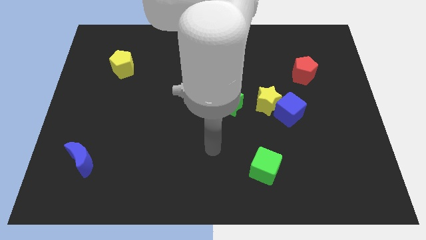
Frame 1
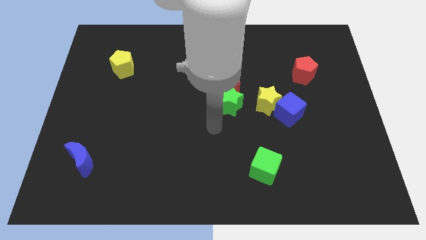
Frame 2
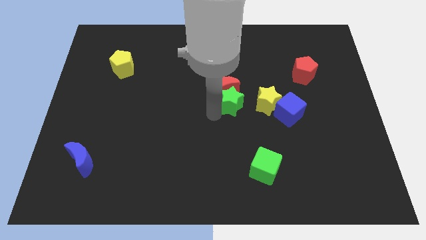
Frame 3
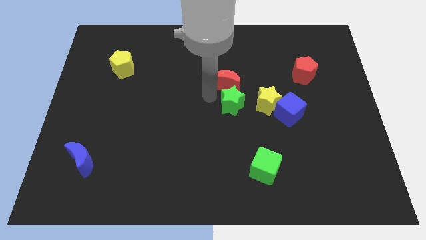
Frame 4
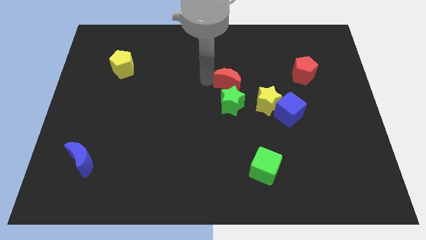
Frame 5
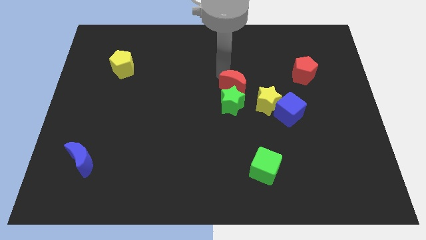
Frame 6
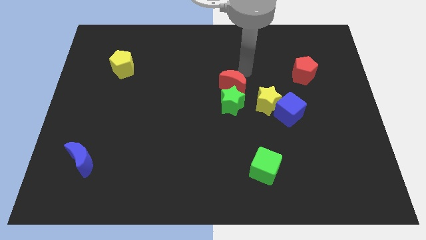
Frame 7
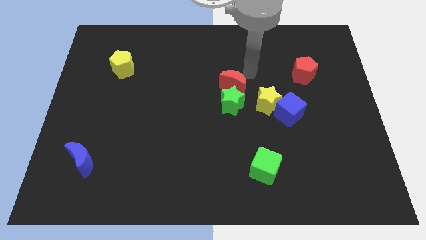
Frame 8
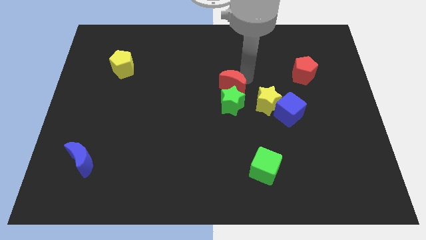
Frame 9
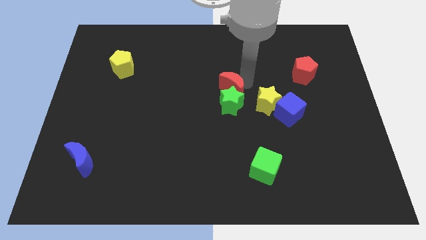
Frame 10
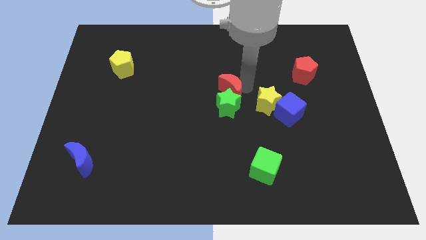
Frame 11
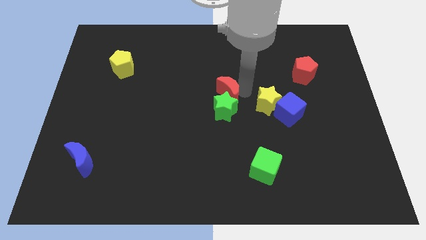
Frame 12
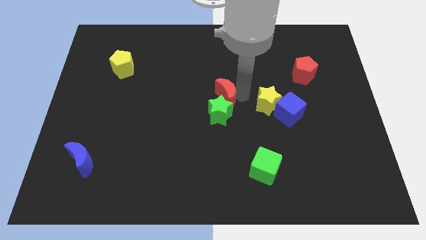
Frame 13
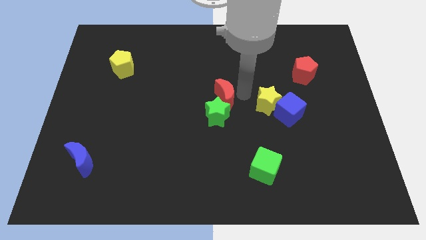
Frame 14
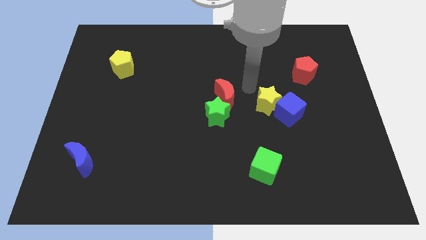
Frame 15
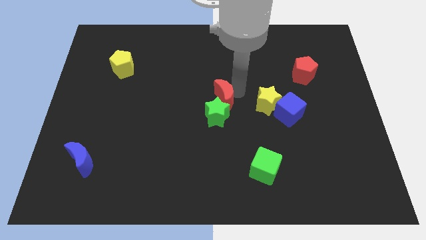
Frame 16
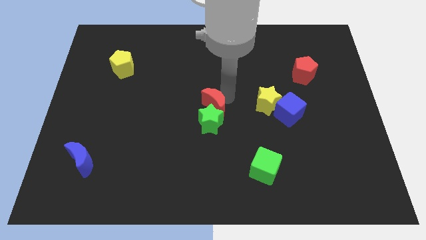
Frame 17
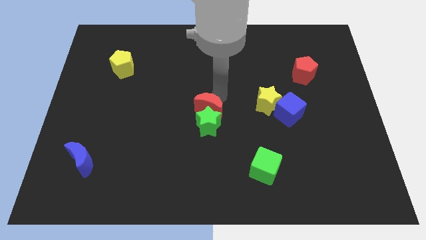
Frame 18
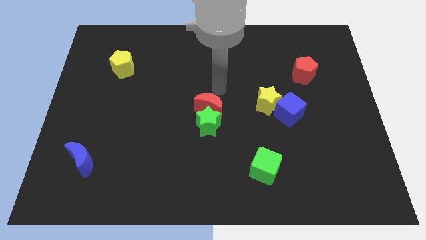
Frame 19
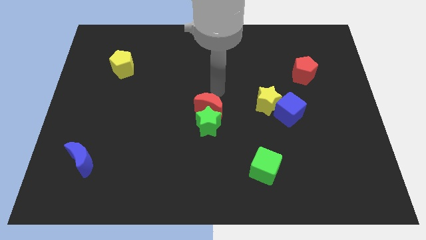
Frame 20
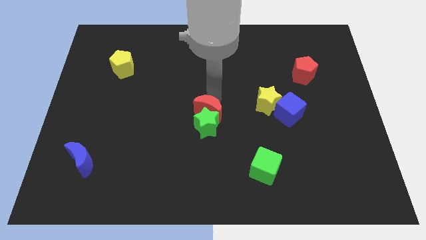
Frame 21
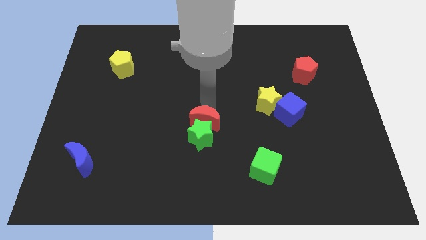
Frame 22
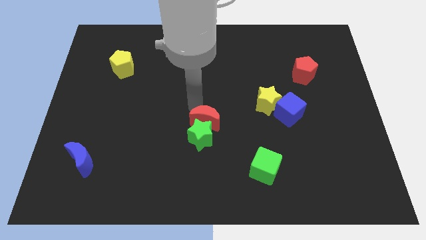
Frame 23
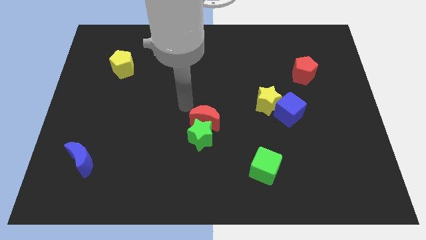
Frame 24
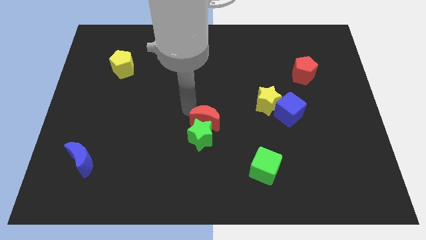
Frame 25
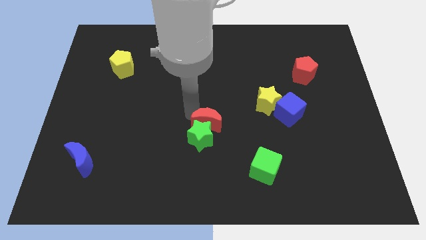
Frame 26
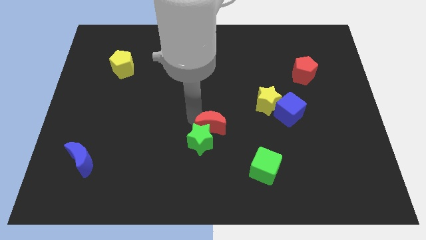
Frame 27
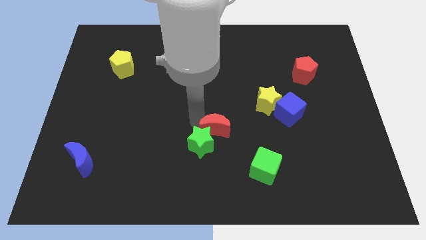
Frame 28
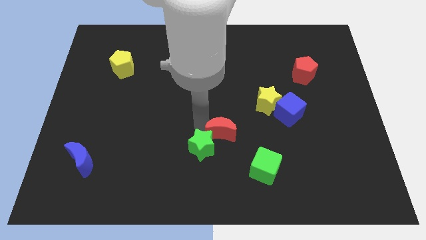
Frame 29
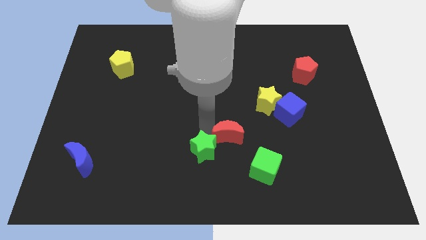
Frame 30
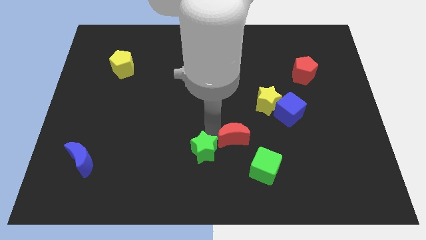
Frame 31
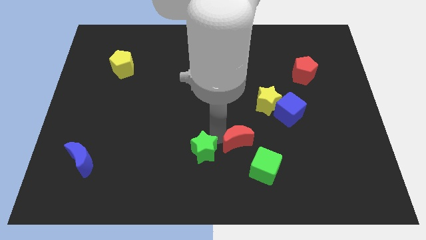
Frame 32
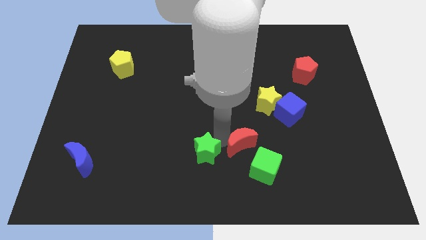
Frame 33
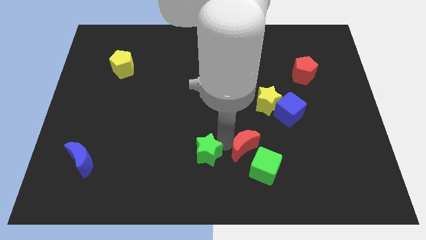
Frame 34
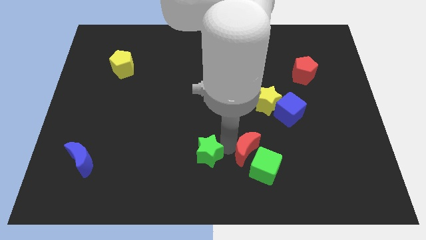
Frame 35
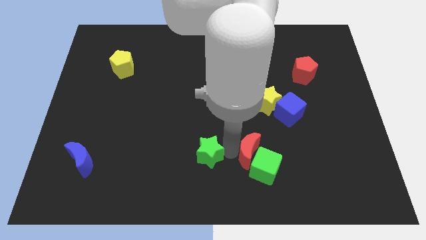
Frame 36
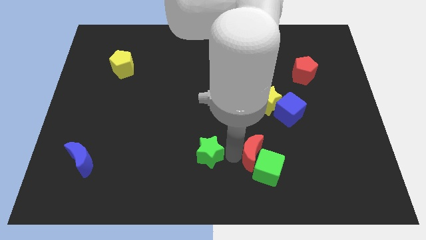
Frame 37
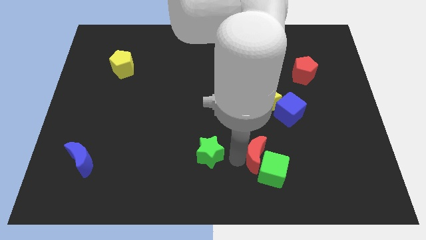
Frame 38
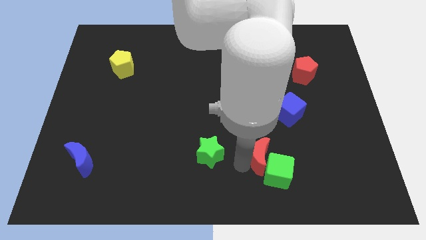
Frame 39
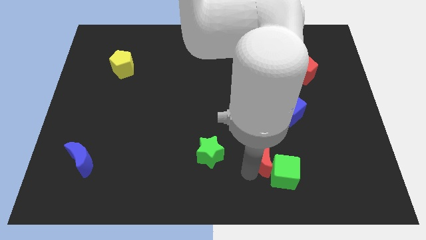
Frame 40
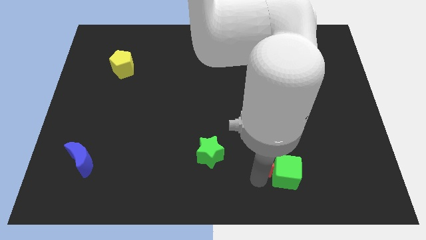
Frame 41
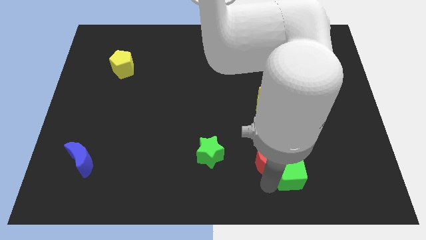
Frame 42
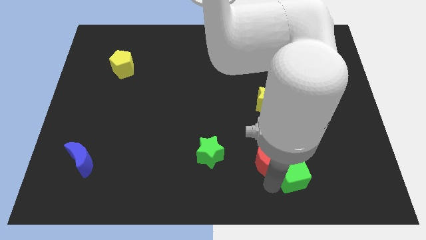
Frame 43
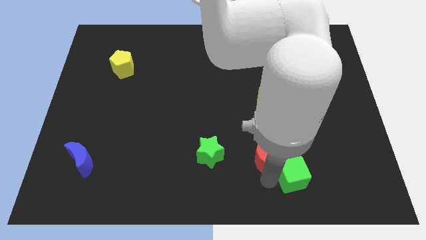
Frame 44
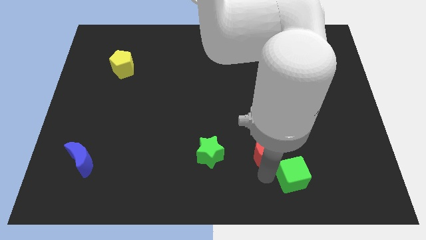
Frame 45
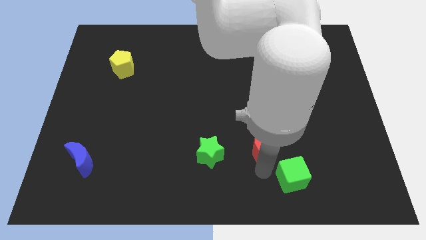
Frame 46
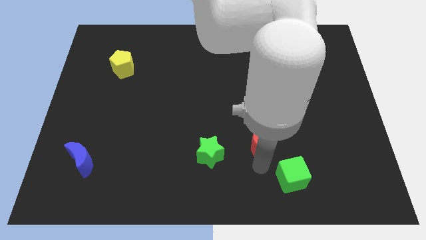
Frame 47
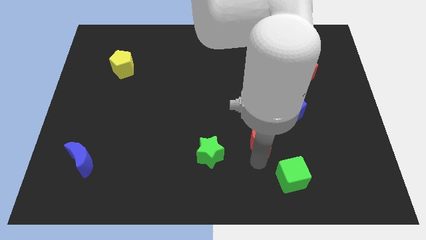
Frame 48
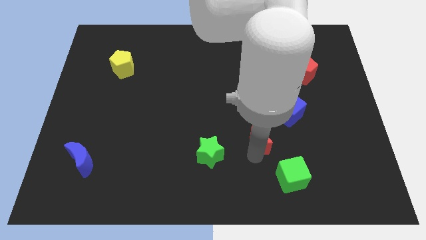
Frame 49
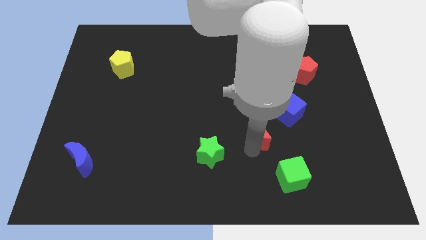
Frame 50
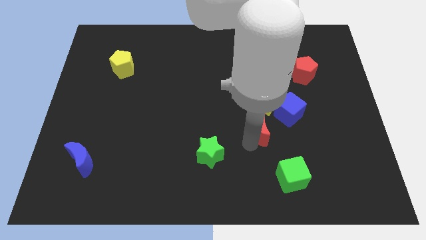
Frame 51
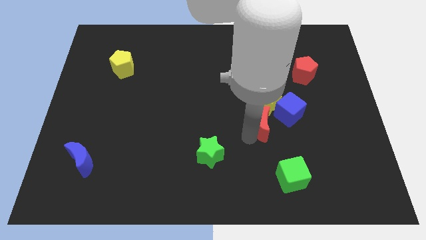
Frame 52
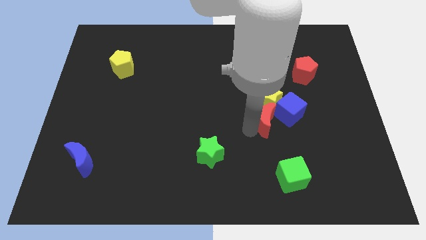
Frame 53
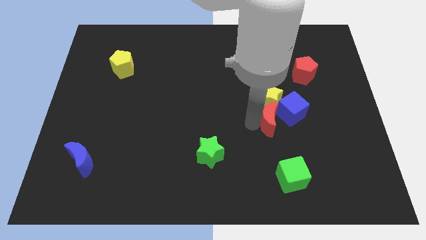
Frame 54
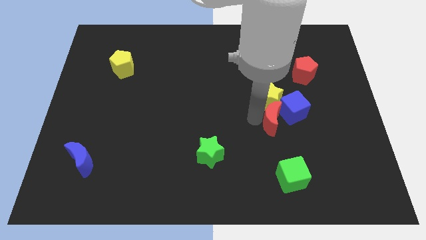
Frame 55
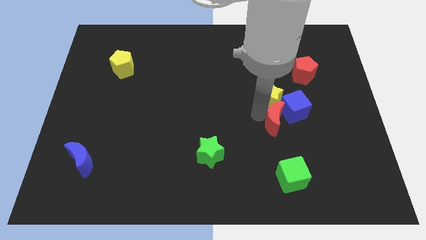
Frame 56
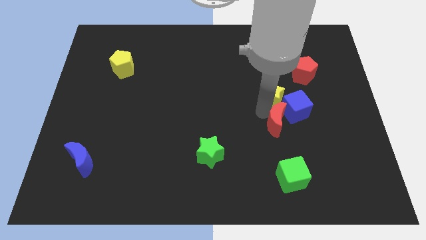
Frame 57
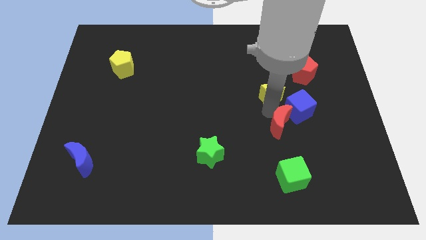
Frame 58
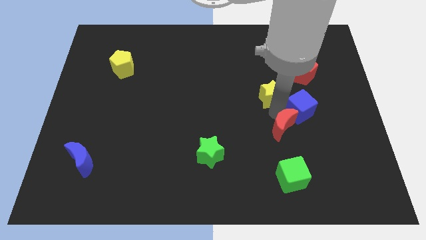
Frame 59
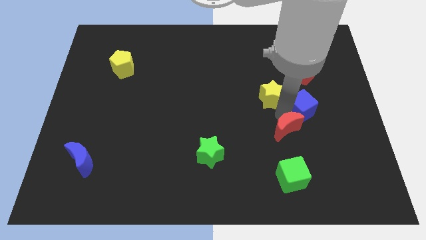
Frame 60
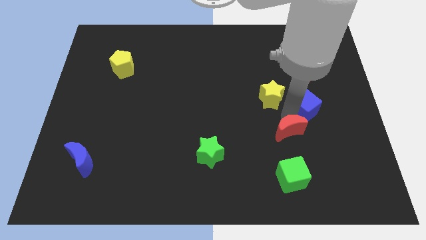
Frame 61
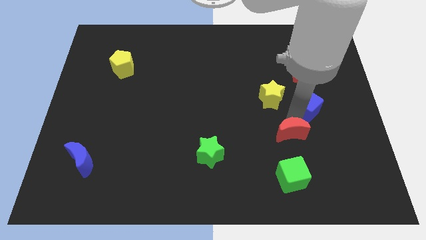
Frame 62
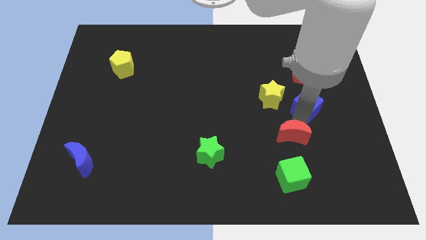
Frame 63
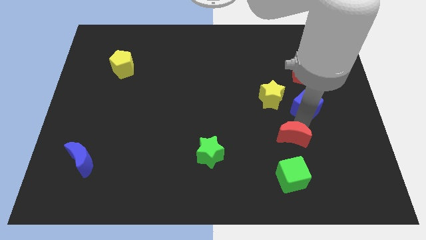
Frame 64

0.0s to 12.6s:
slide the red moon diagonally downwards and to the right

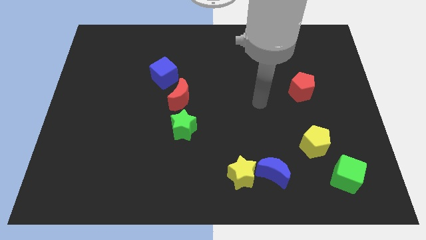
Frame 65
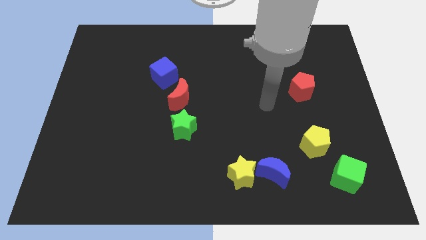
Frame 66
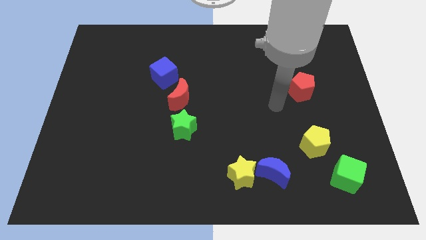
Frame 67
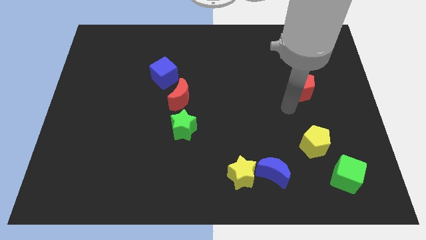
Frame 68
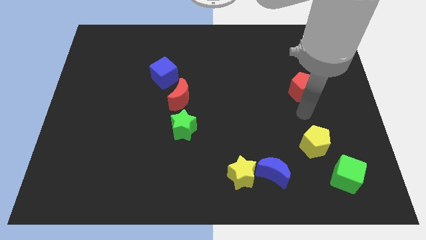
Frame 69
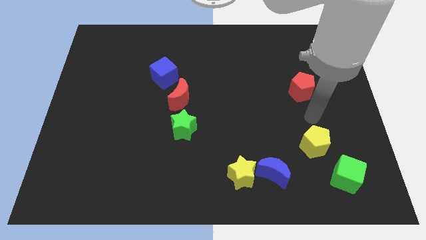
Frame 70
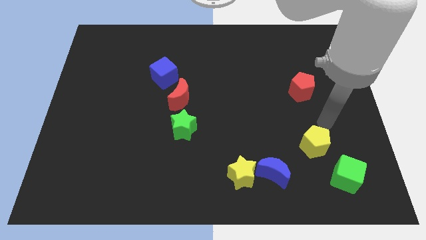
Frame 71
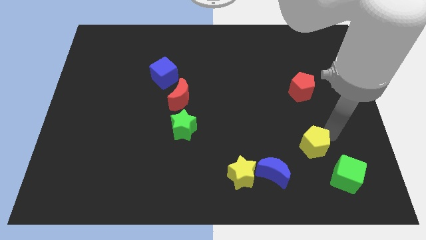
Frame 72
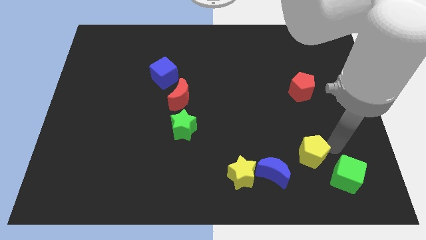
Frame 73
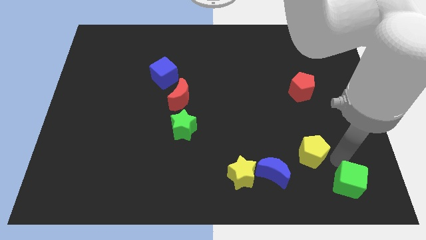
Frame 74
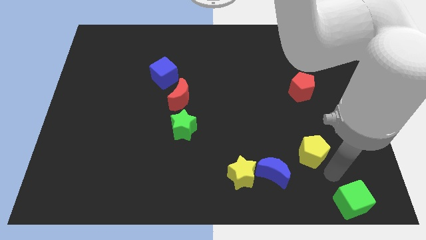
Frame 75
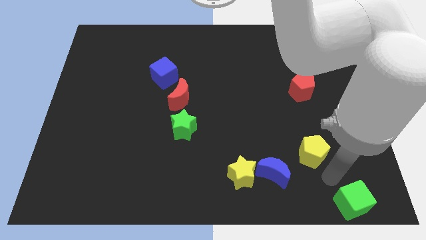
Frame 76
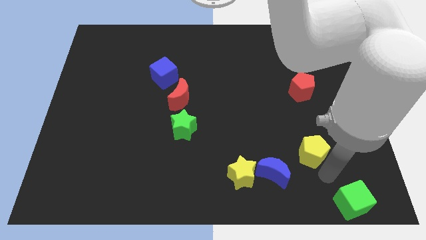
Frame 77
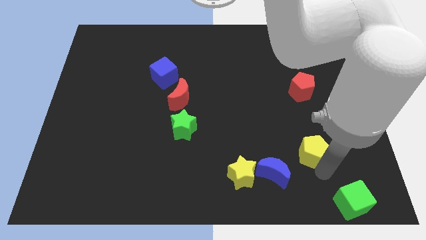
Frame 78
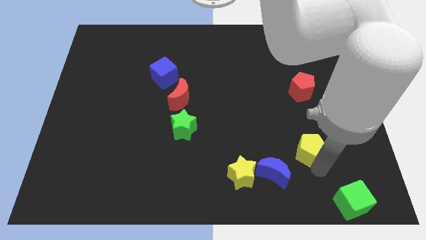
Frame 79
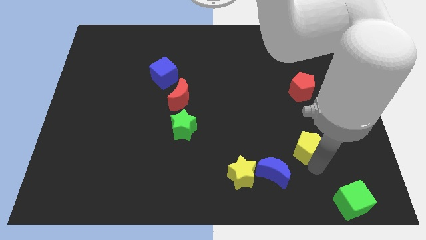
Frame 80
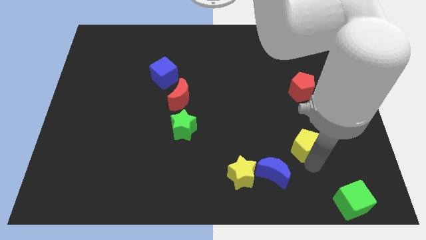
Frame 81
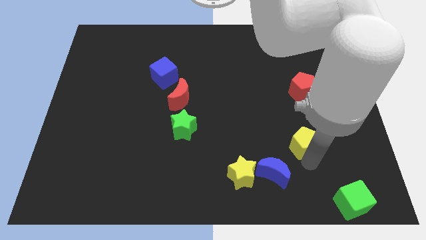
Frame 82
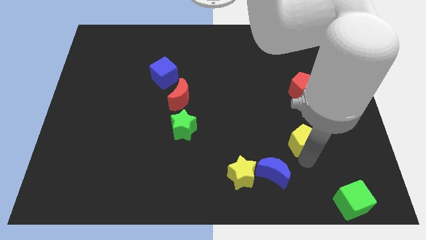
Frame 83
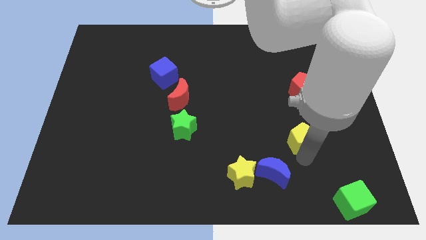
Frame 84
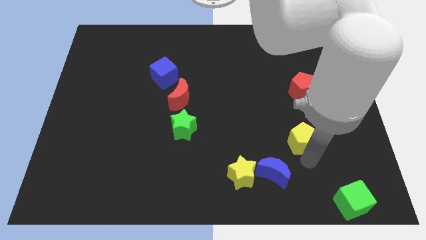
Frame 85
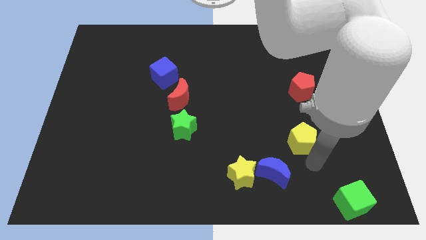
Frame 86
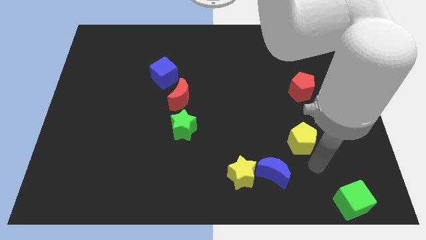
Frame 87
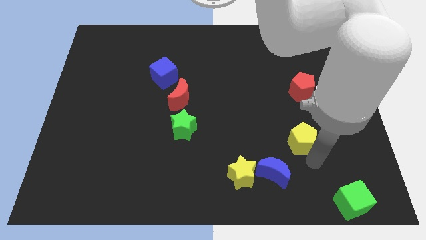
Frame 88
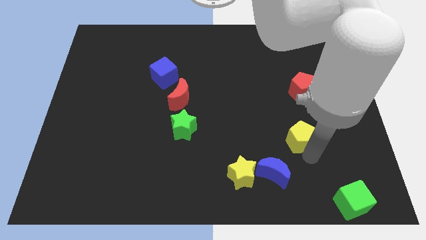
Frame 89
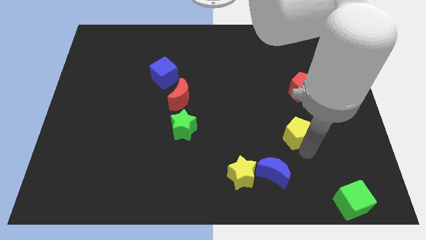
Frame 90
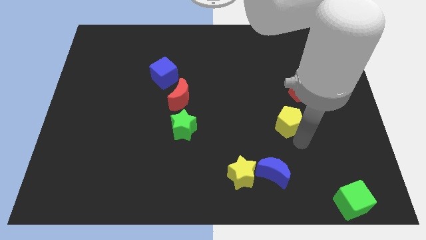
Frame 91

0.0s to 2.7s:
move the yellow pentagon upwards and then to the left a little bit
